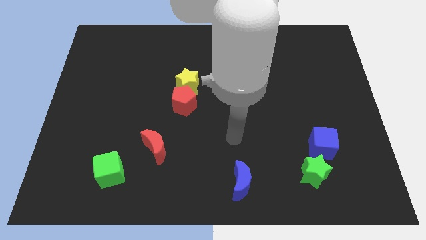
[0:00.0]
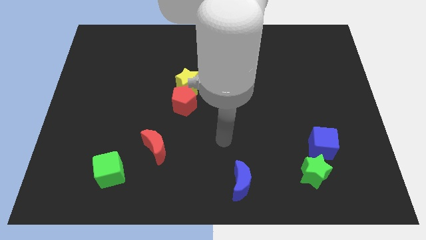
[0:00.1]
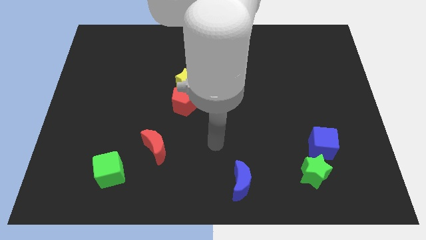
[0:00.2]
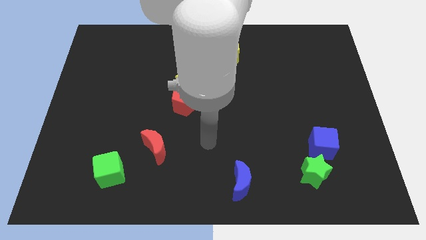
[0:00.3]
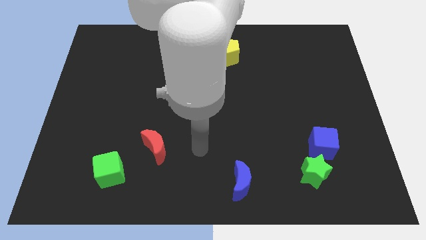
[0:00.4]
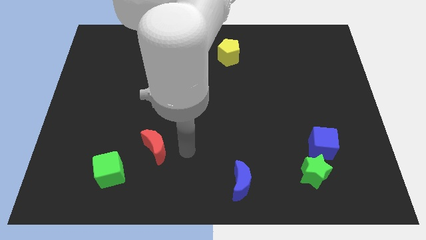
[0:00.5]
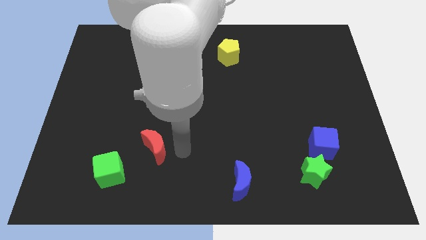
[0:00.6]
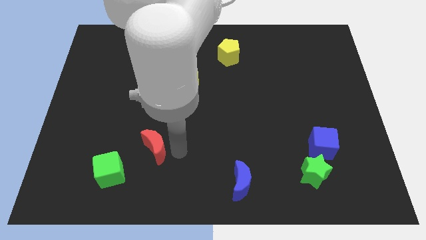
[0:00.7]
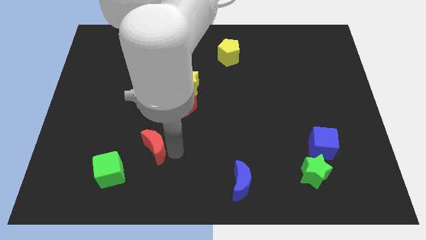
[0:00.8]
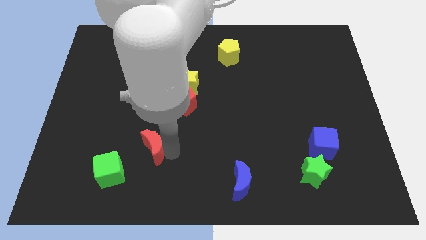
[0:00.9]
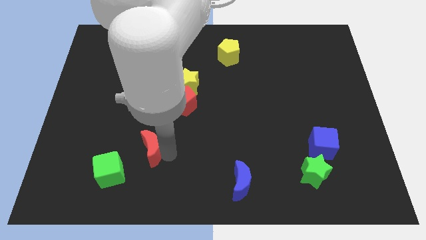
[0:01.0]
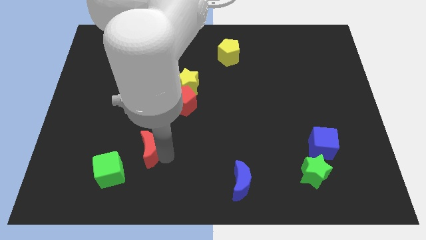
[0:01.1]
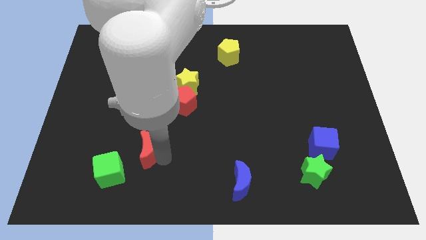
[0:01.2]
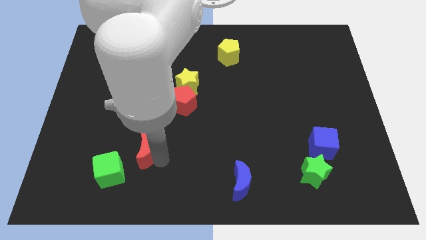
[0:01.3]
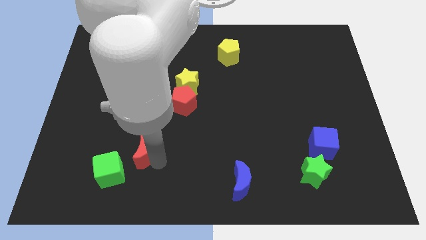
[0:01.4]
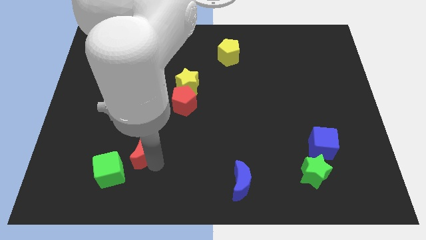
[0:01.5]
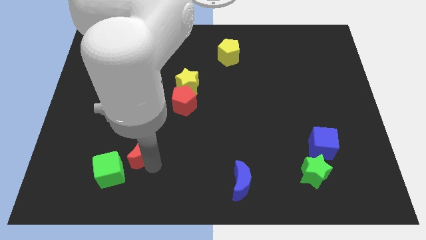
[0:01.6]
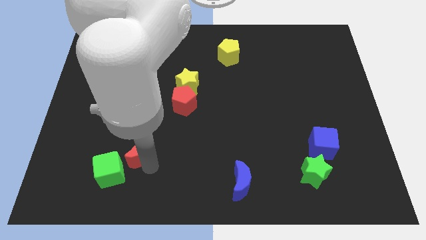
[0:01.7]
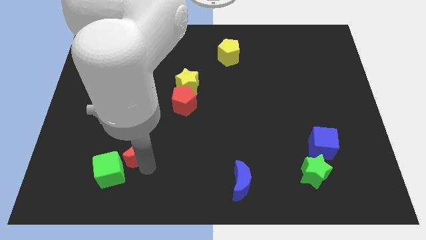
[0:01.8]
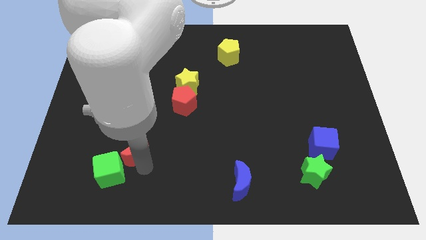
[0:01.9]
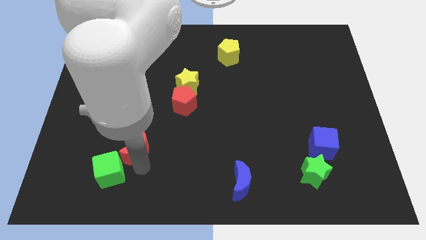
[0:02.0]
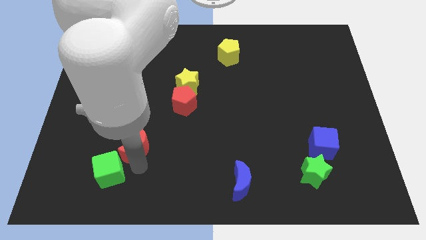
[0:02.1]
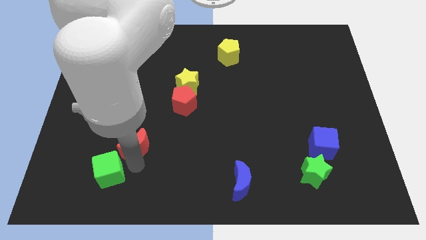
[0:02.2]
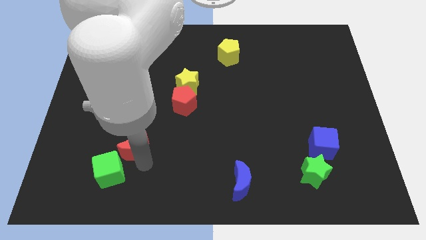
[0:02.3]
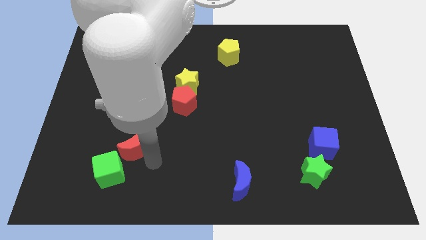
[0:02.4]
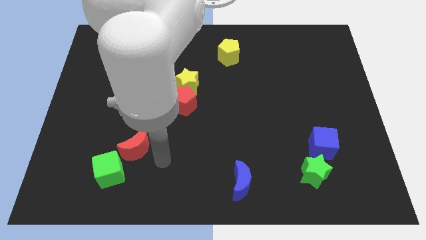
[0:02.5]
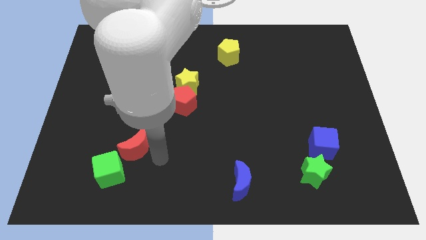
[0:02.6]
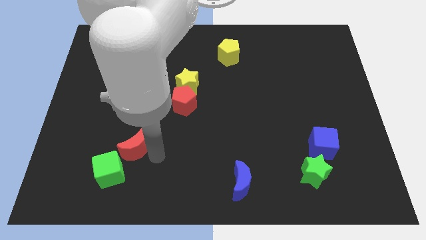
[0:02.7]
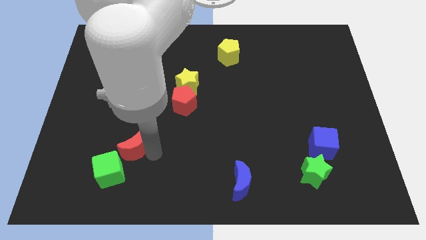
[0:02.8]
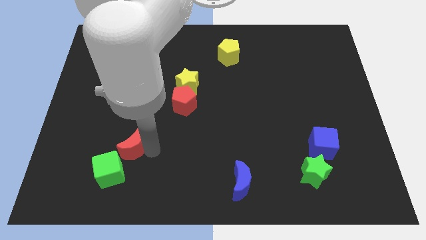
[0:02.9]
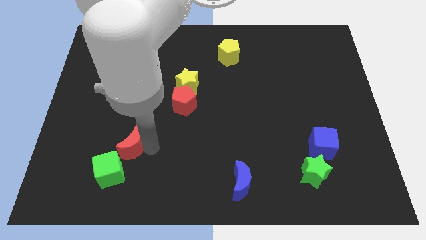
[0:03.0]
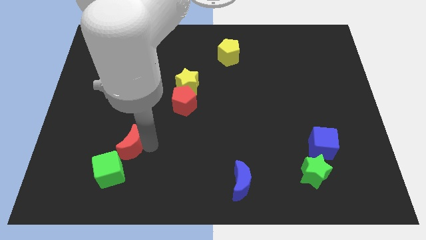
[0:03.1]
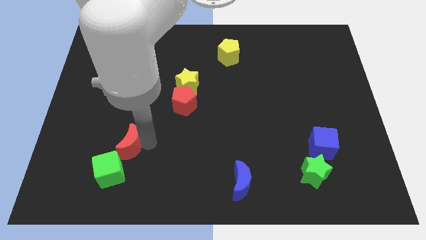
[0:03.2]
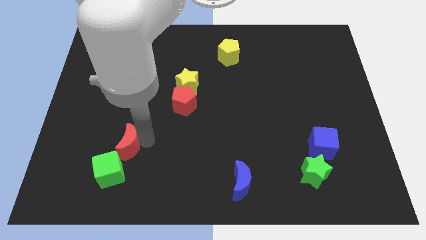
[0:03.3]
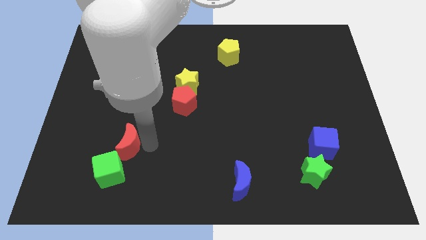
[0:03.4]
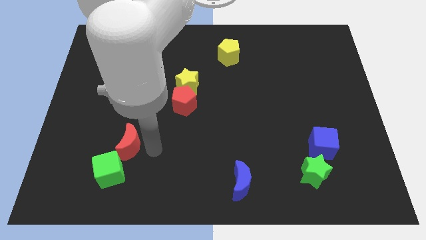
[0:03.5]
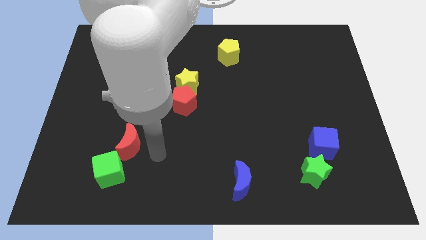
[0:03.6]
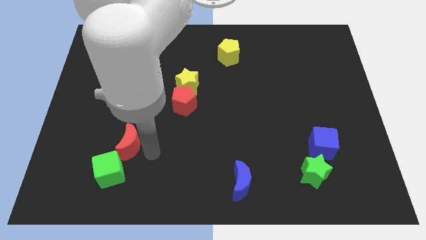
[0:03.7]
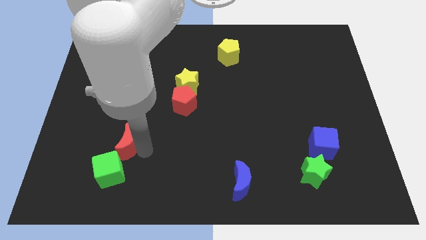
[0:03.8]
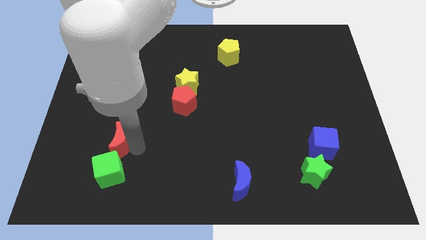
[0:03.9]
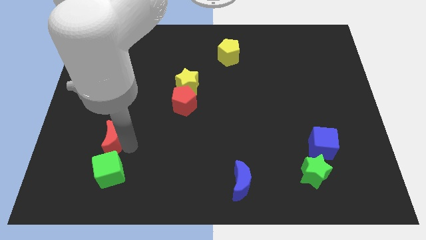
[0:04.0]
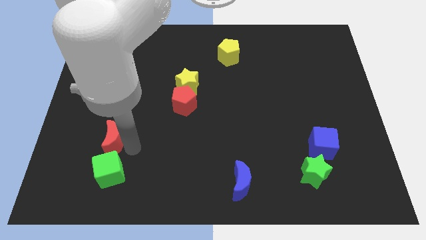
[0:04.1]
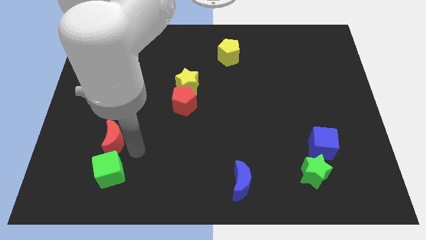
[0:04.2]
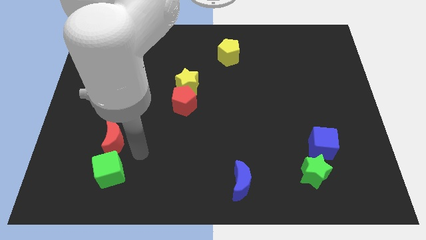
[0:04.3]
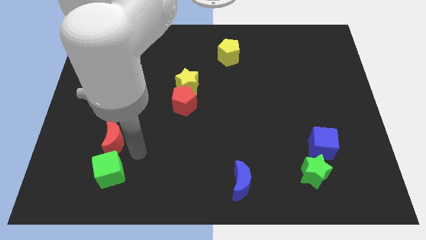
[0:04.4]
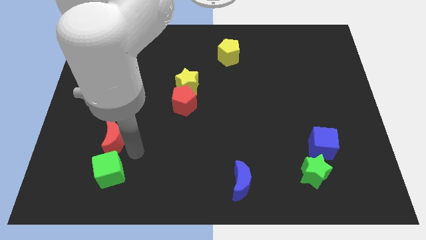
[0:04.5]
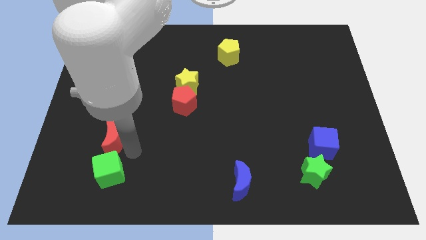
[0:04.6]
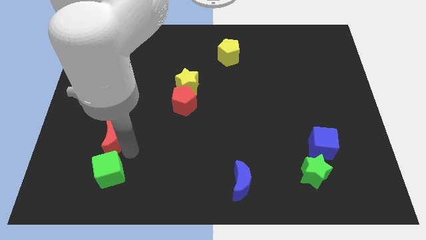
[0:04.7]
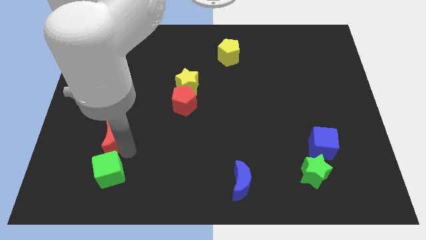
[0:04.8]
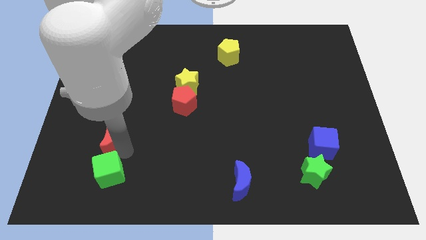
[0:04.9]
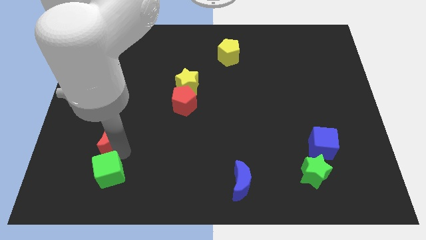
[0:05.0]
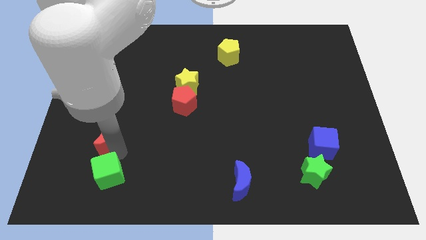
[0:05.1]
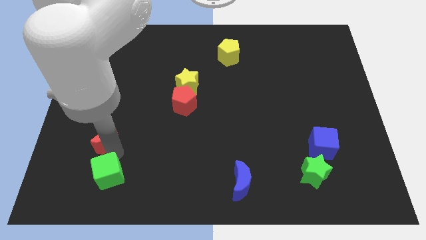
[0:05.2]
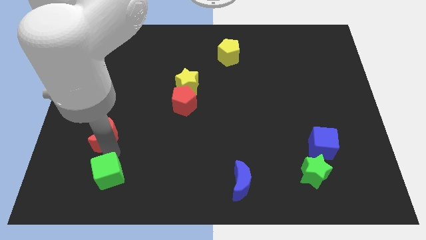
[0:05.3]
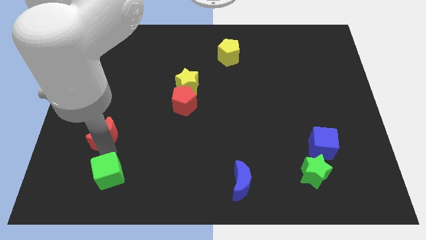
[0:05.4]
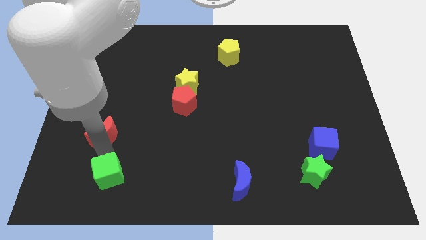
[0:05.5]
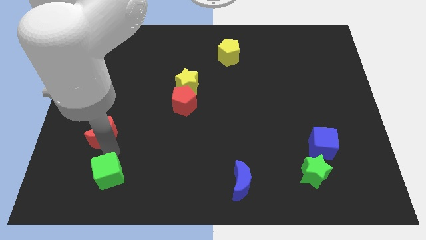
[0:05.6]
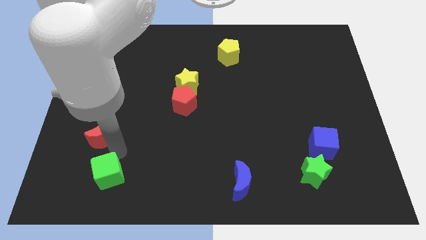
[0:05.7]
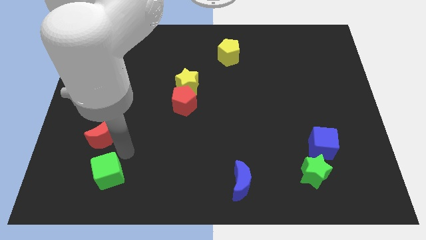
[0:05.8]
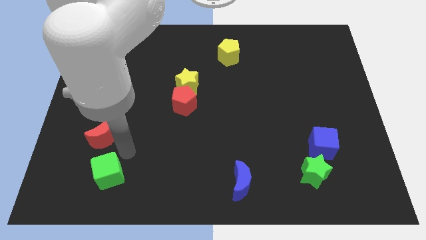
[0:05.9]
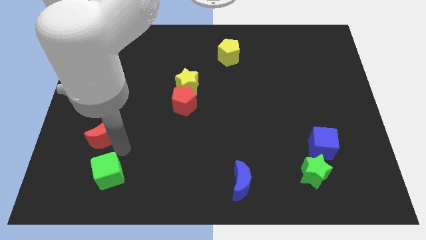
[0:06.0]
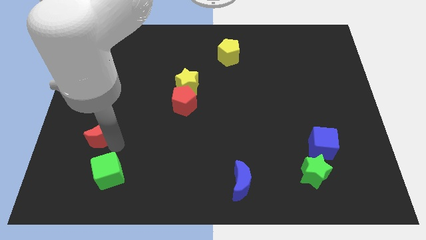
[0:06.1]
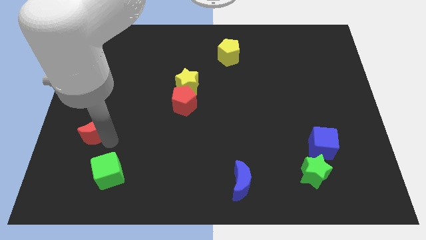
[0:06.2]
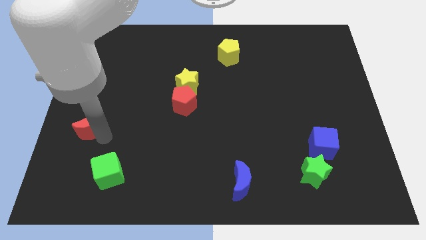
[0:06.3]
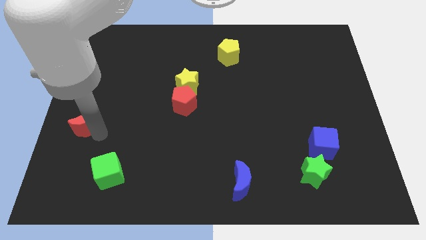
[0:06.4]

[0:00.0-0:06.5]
put the red moon to the left side of the board
